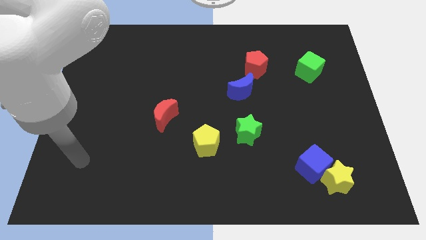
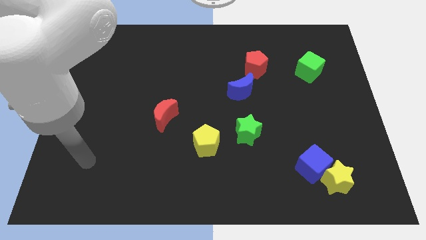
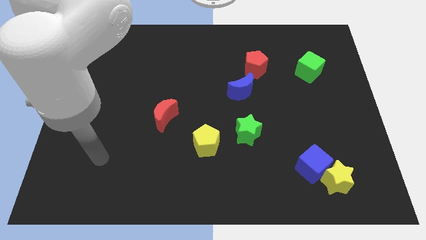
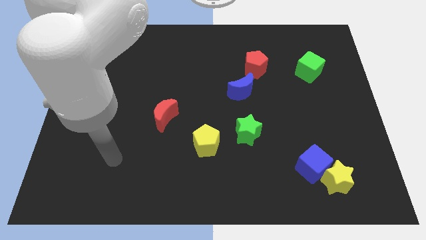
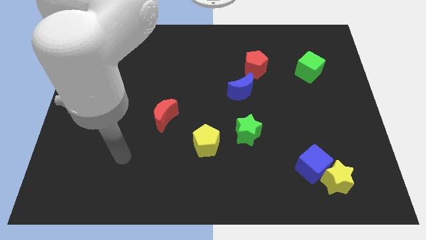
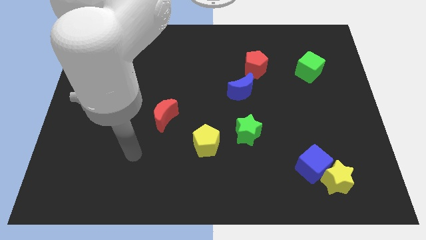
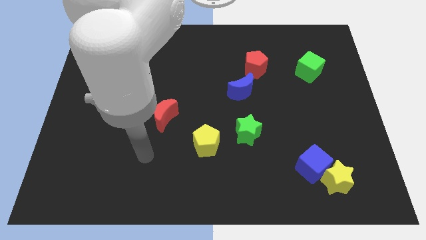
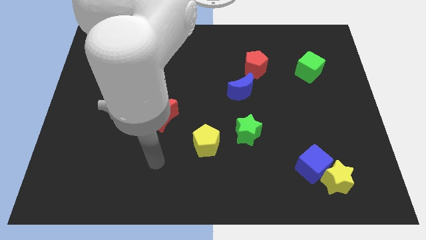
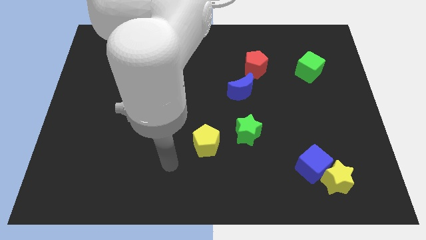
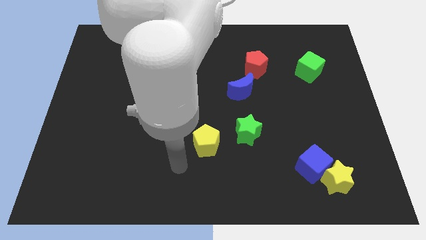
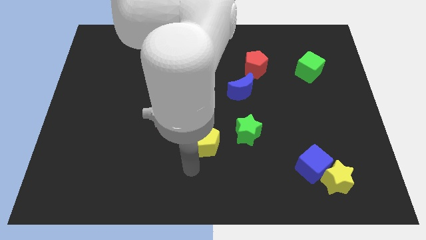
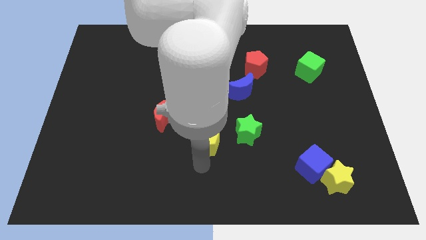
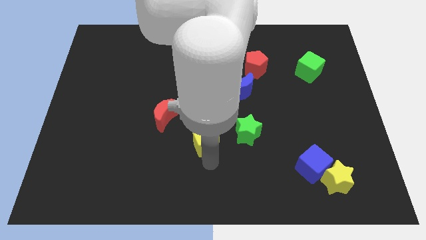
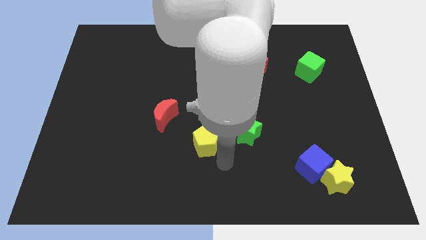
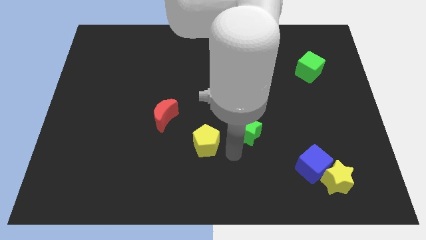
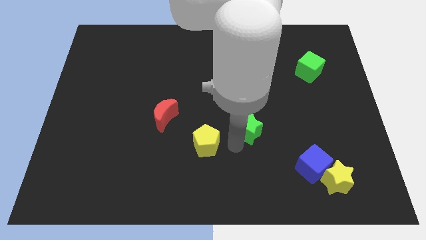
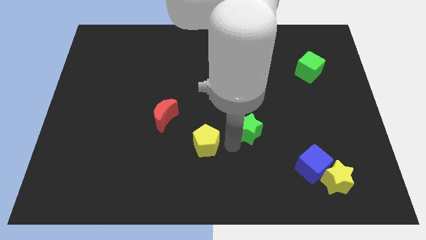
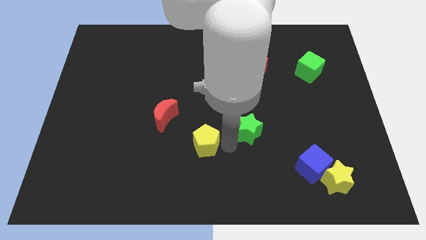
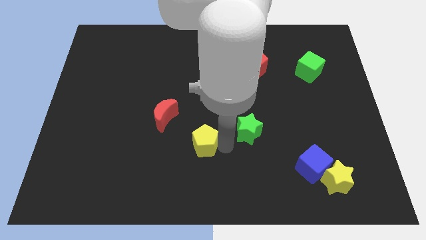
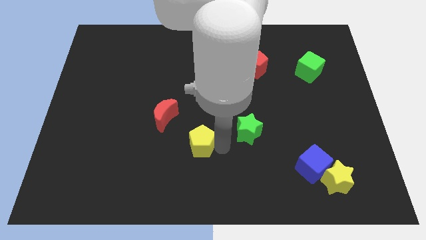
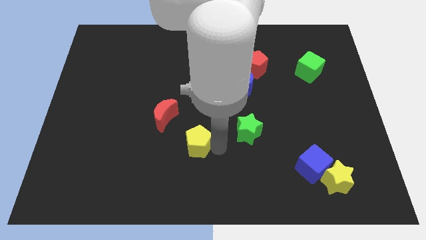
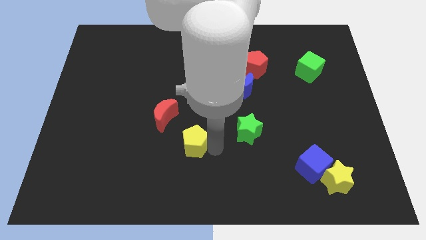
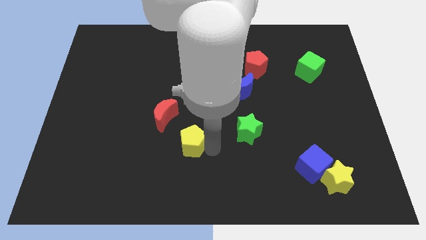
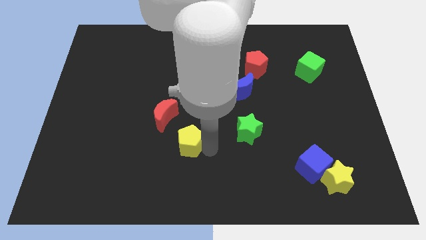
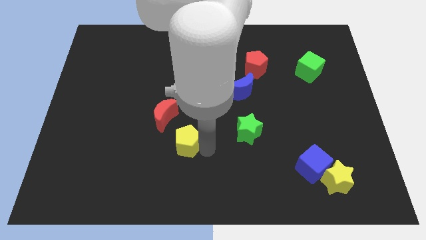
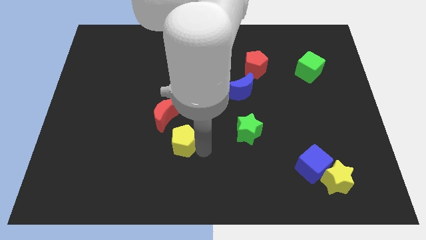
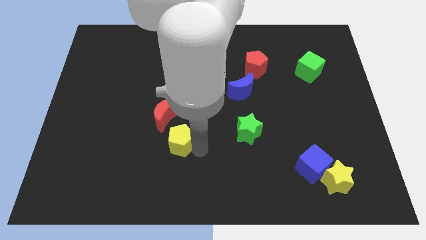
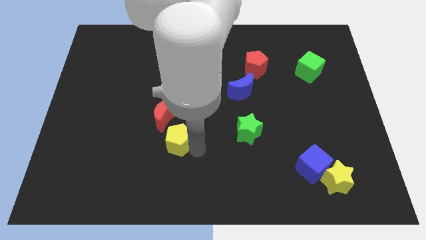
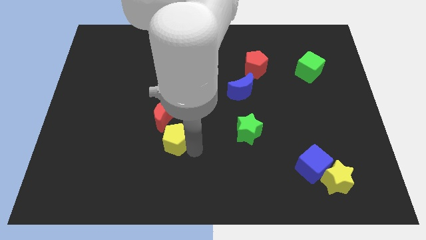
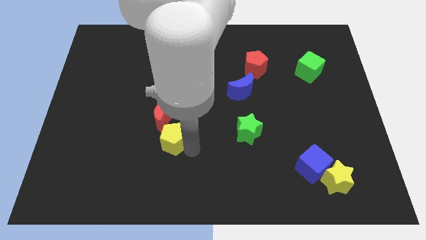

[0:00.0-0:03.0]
move the yellow pentagon somewhat to the left

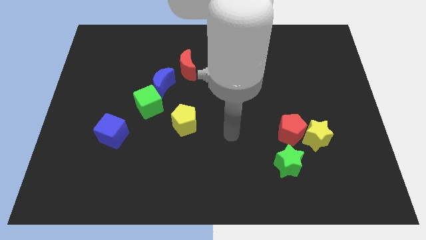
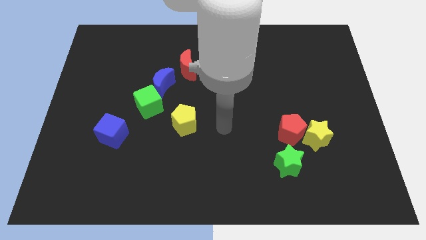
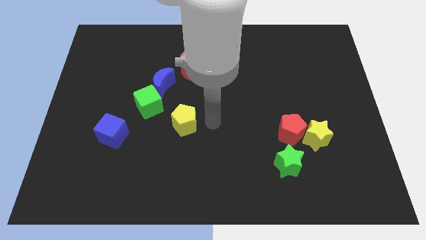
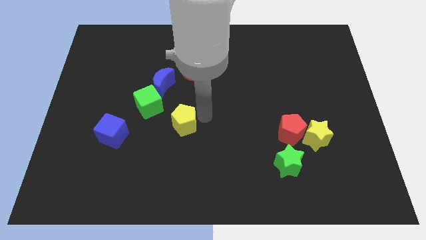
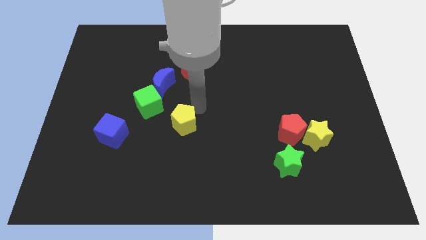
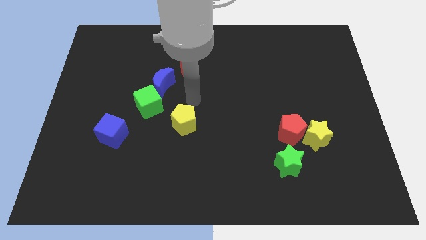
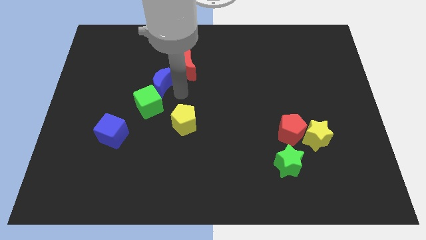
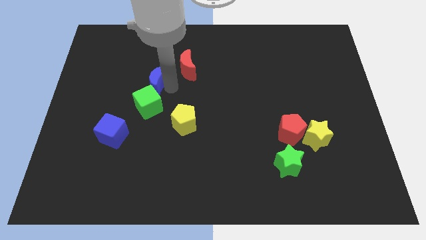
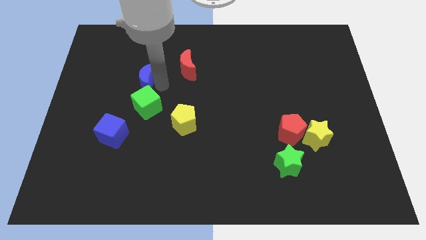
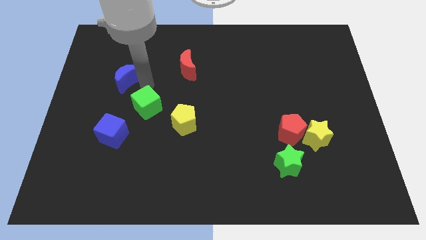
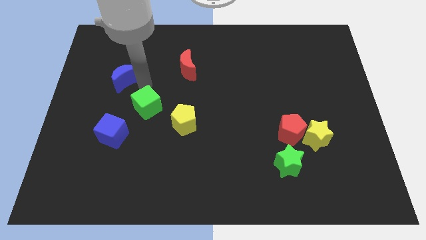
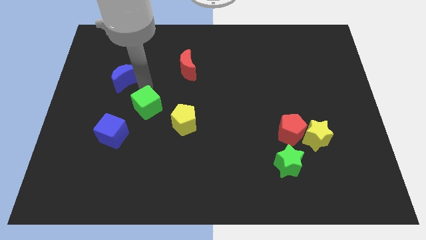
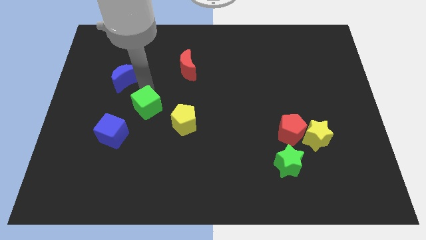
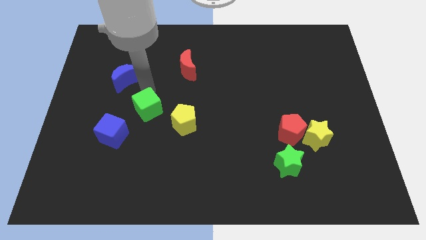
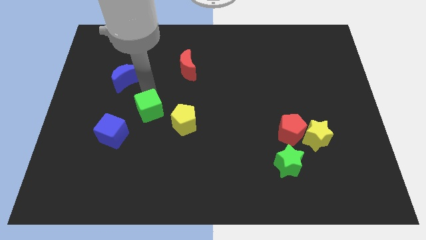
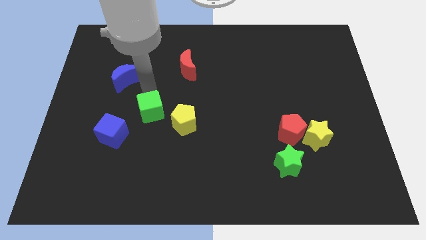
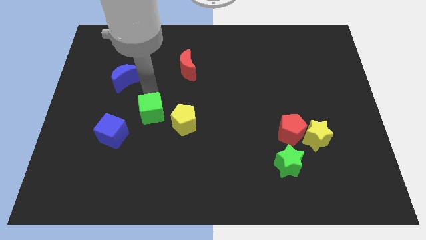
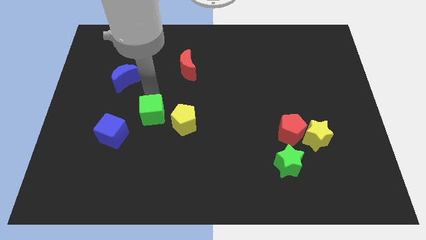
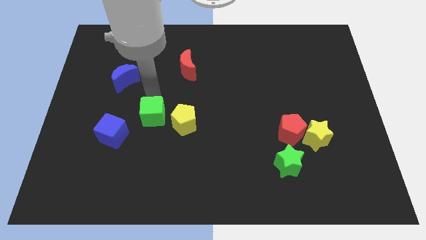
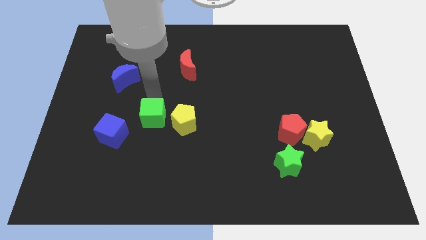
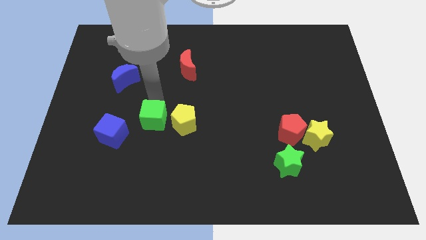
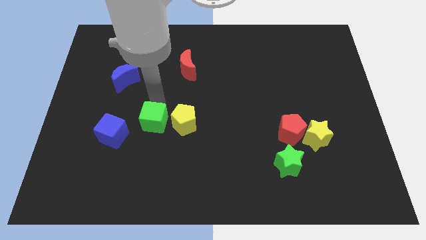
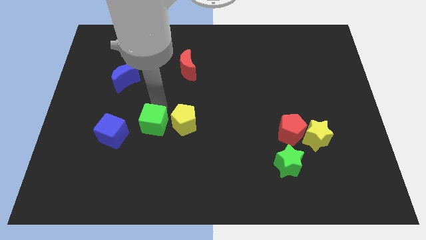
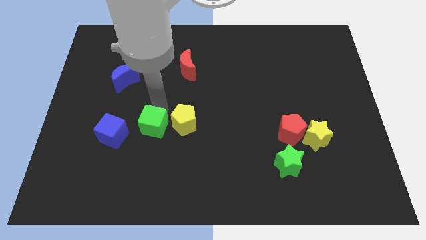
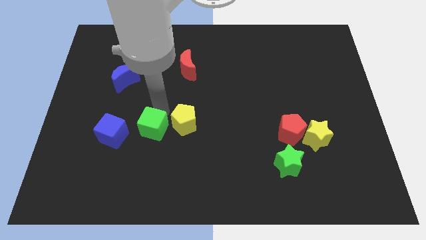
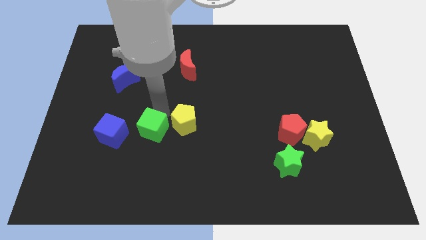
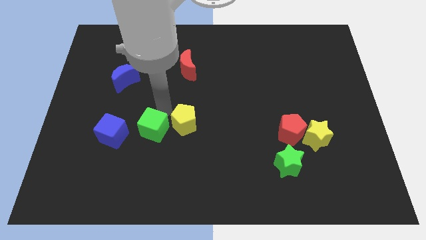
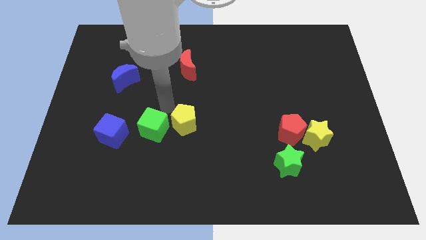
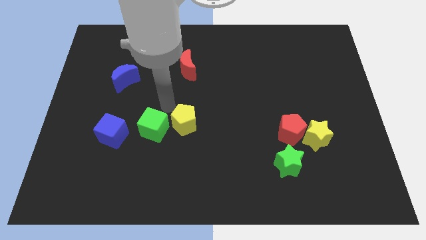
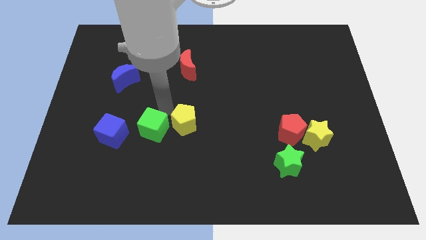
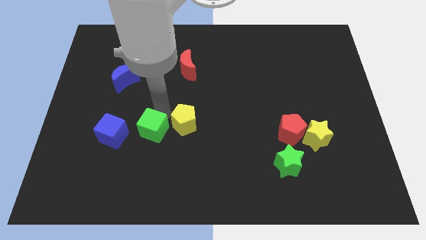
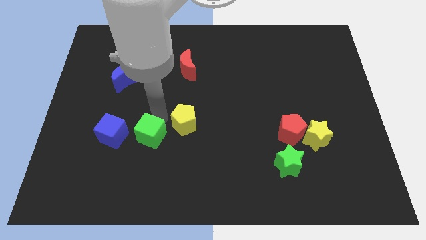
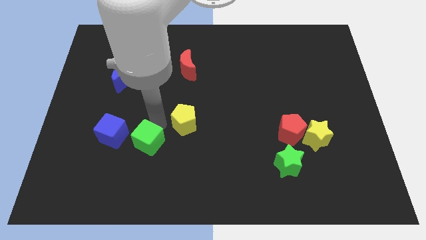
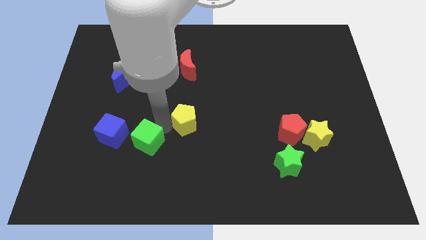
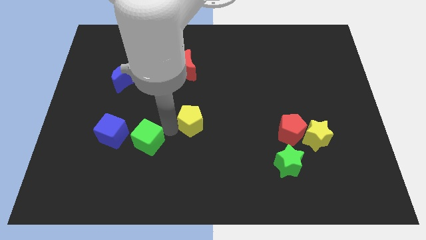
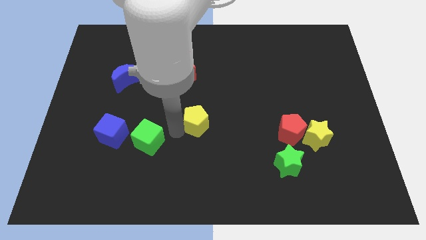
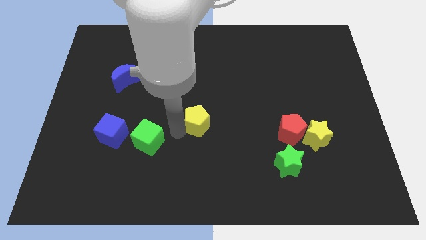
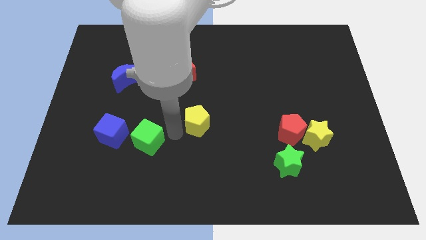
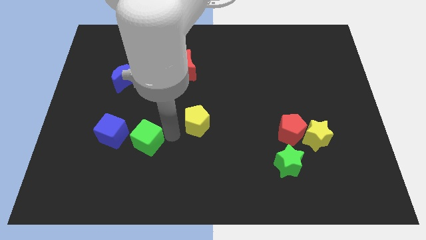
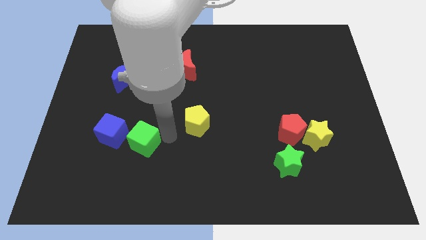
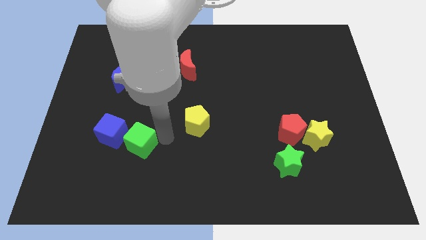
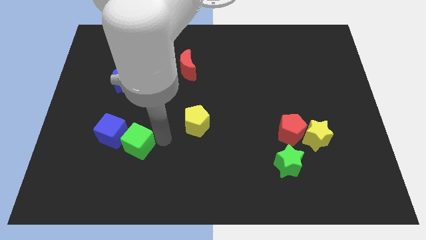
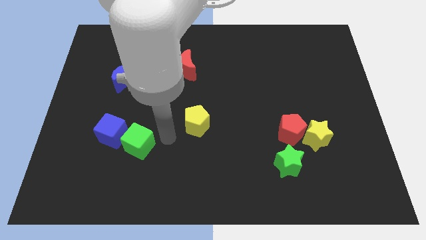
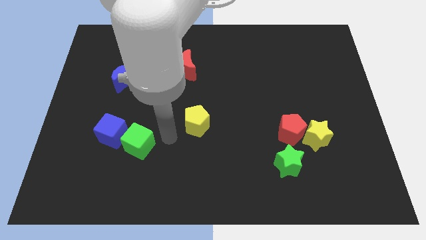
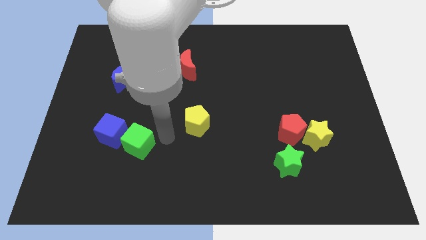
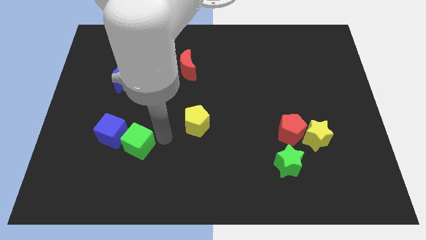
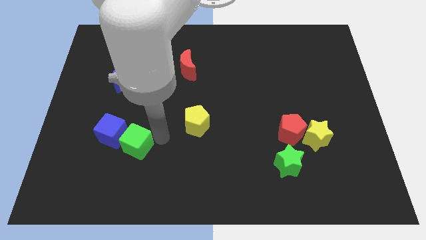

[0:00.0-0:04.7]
move the green cube slightly diagonally down and left
